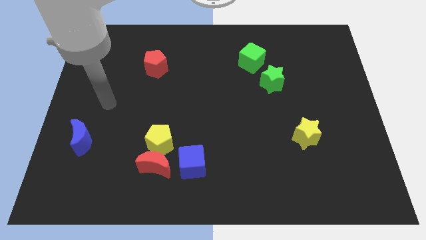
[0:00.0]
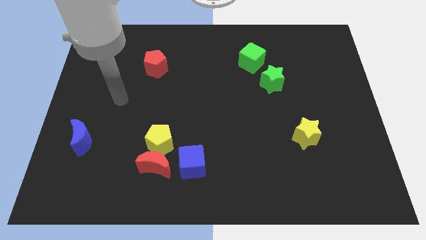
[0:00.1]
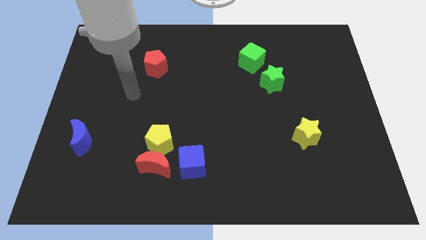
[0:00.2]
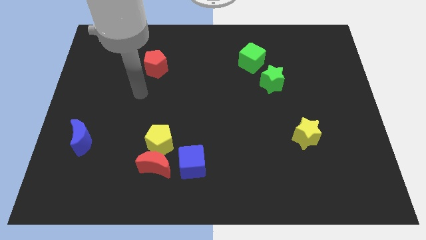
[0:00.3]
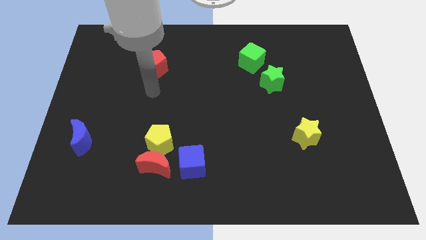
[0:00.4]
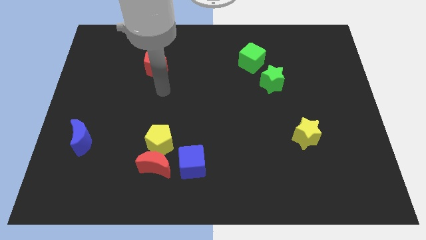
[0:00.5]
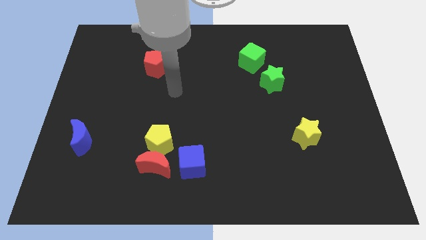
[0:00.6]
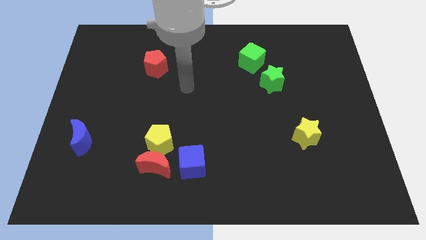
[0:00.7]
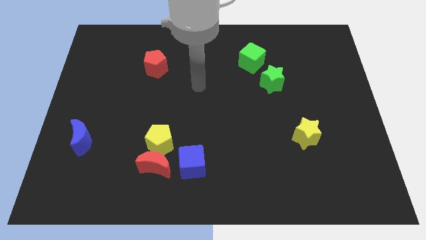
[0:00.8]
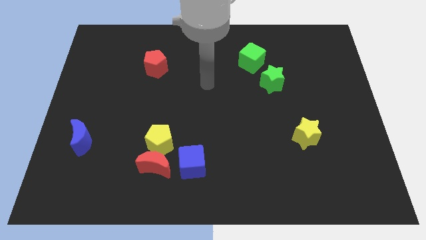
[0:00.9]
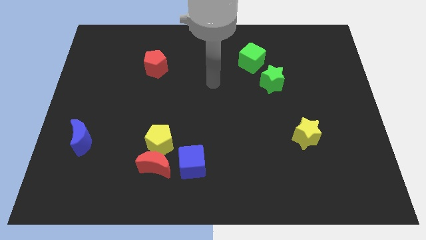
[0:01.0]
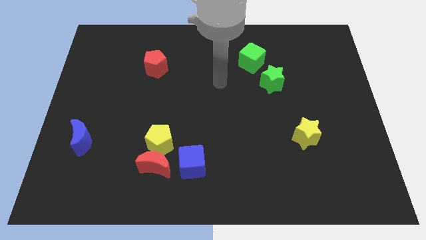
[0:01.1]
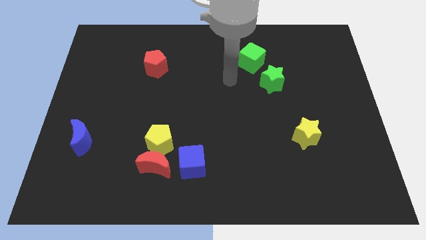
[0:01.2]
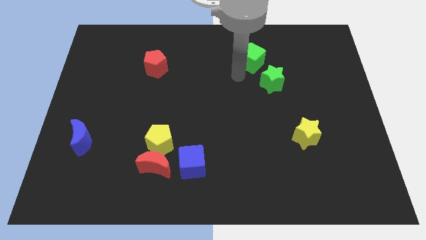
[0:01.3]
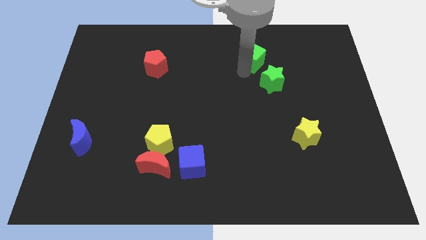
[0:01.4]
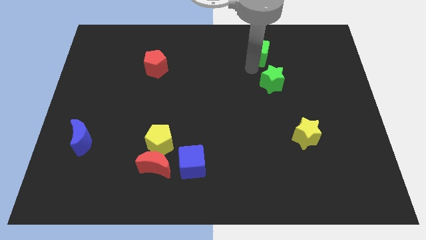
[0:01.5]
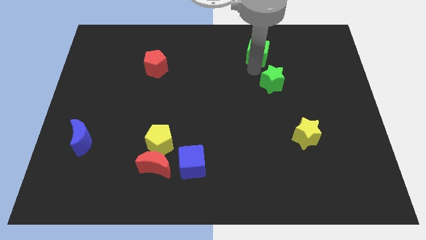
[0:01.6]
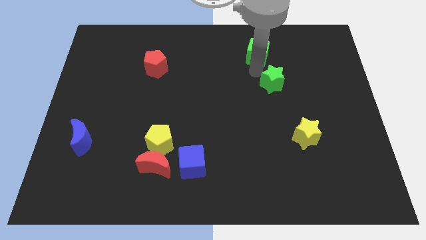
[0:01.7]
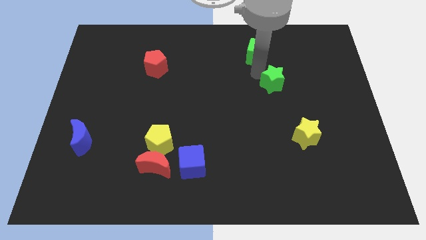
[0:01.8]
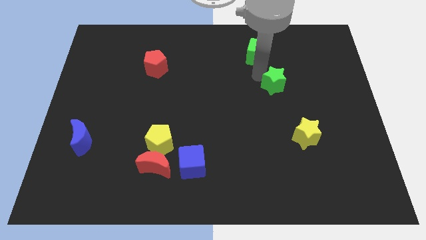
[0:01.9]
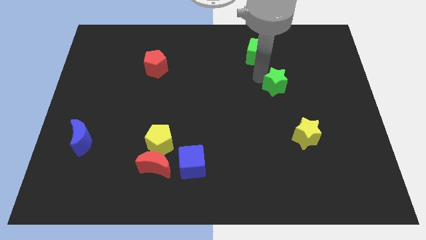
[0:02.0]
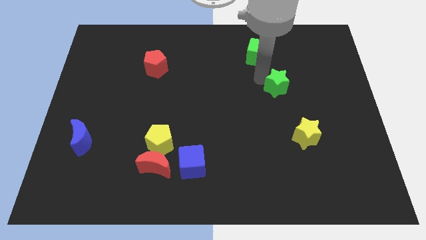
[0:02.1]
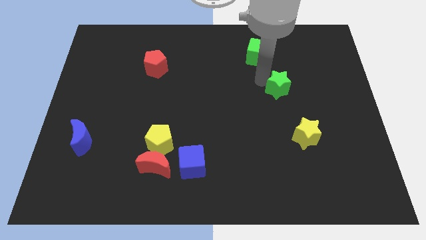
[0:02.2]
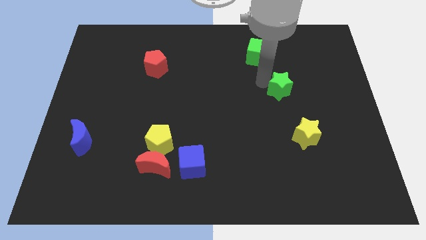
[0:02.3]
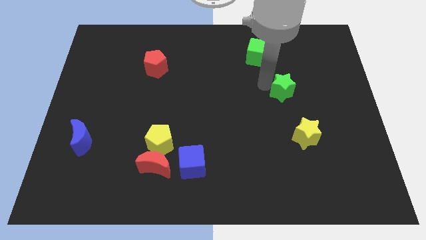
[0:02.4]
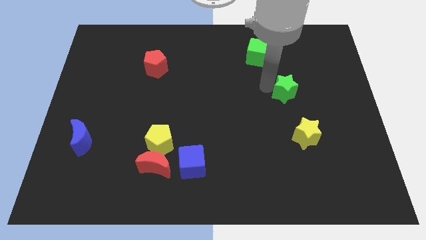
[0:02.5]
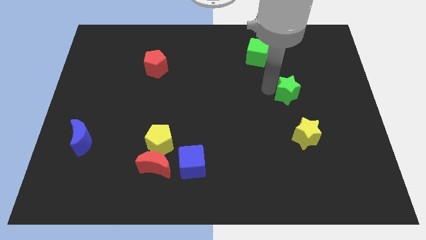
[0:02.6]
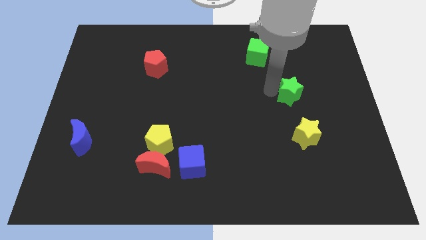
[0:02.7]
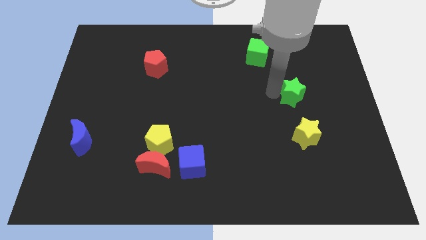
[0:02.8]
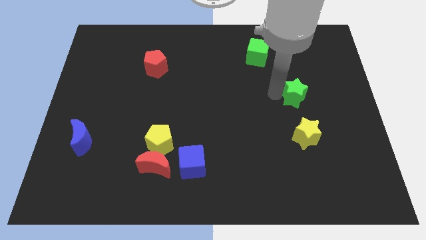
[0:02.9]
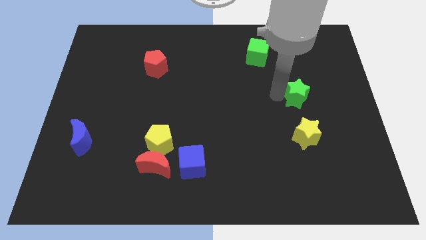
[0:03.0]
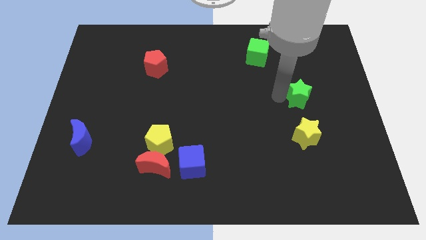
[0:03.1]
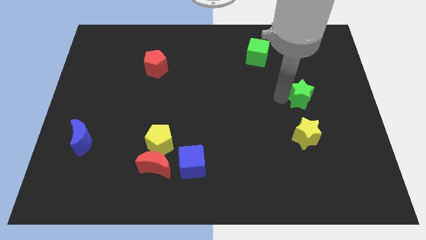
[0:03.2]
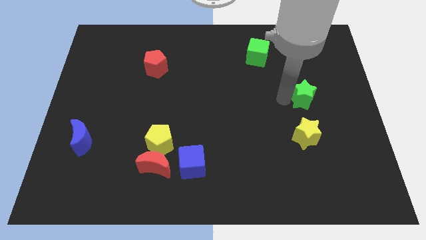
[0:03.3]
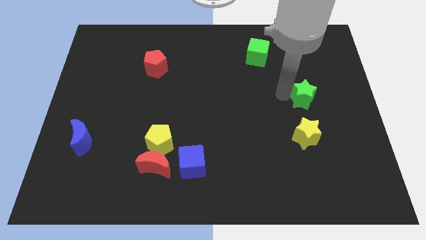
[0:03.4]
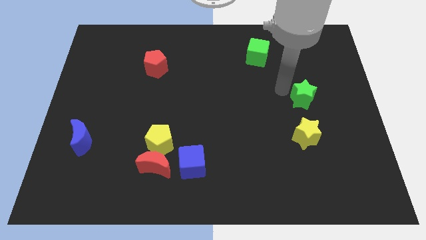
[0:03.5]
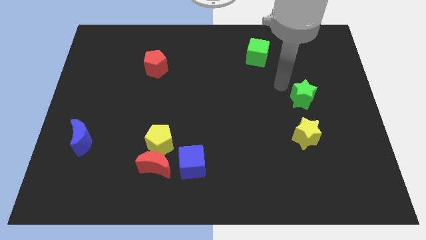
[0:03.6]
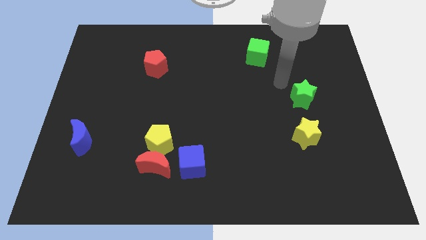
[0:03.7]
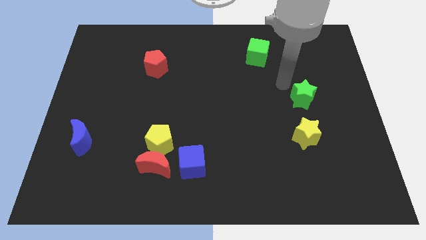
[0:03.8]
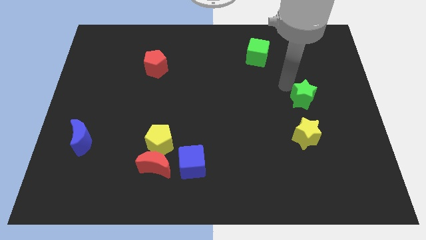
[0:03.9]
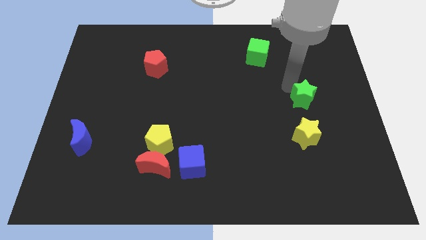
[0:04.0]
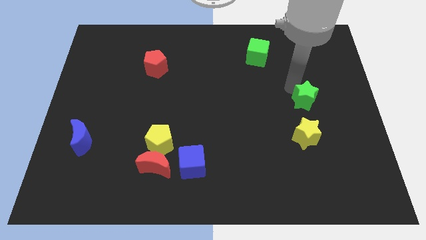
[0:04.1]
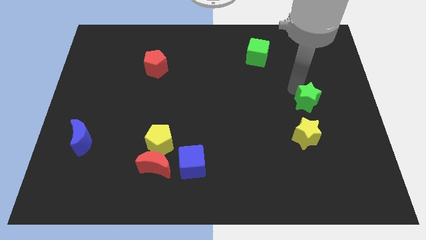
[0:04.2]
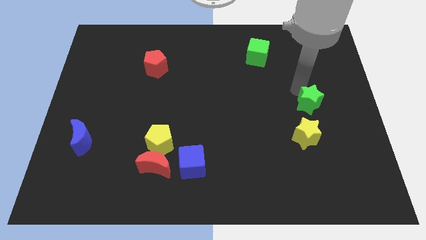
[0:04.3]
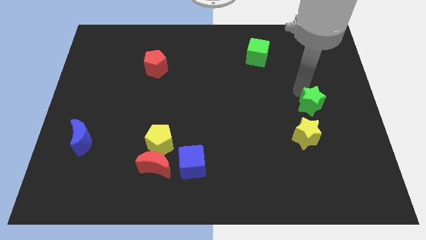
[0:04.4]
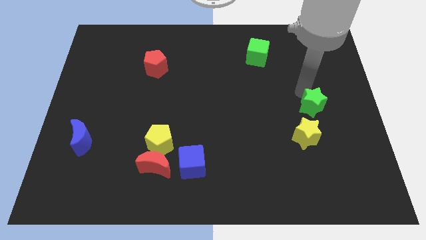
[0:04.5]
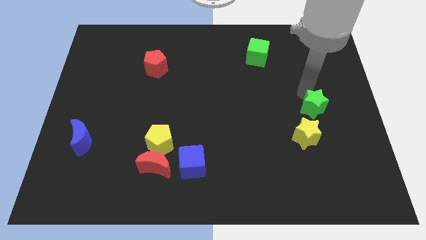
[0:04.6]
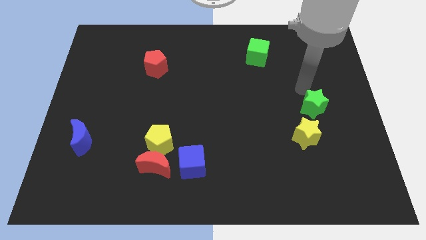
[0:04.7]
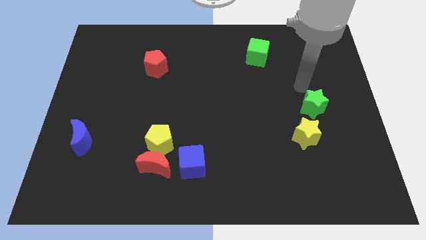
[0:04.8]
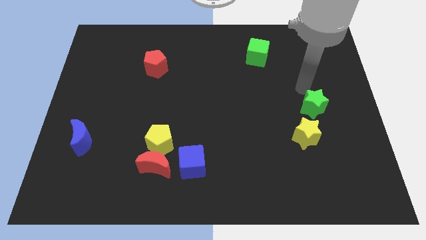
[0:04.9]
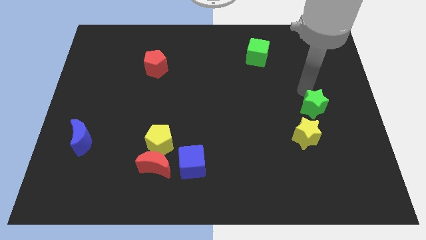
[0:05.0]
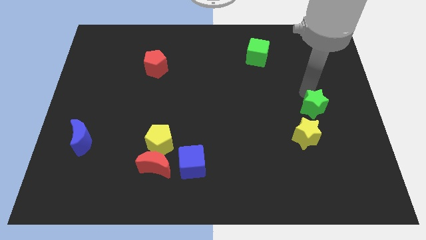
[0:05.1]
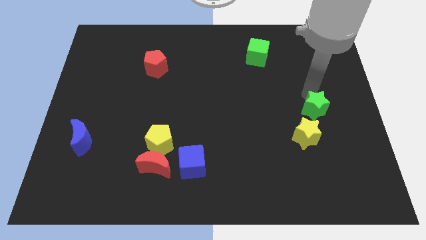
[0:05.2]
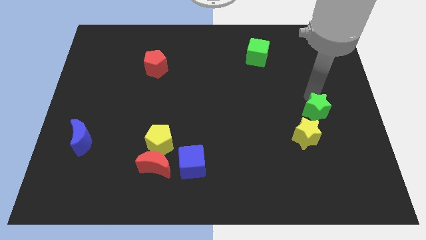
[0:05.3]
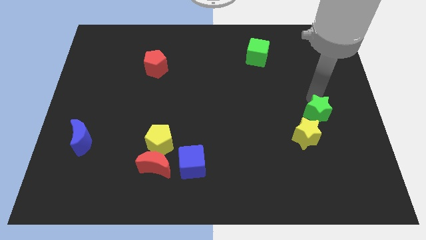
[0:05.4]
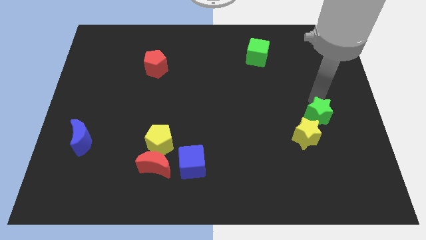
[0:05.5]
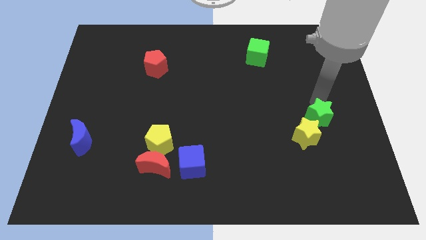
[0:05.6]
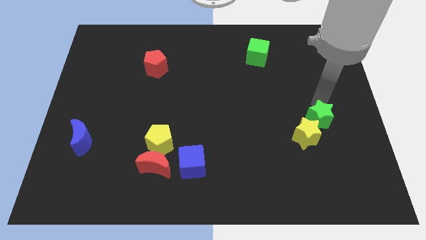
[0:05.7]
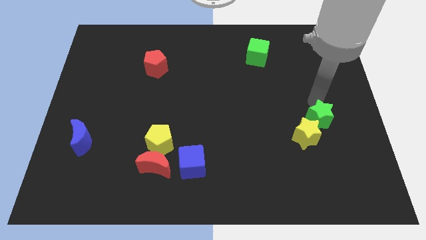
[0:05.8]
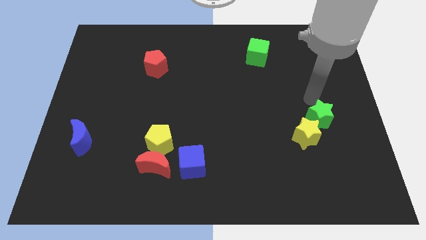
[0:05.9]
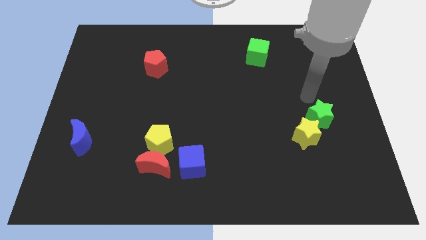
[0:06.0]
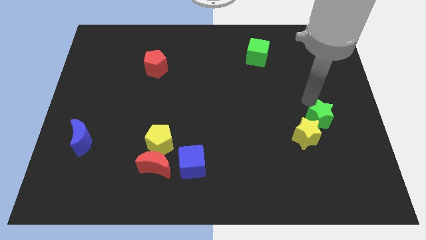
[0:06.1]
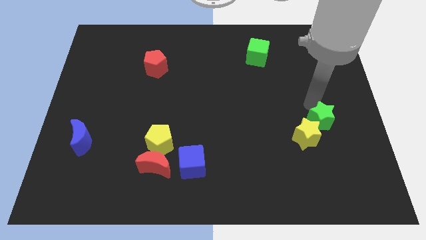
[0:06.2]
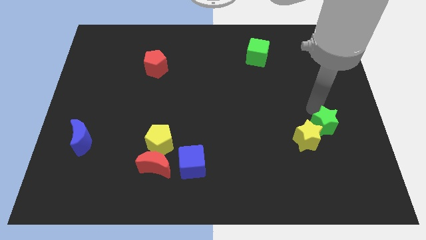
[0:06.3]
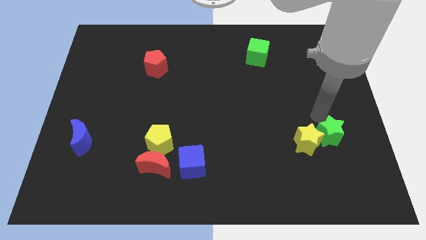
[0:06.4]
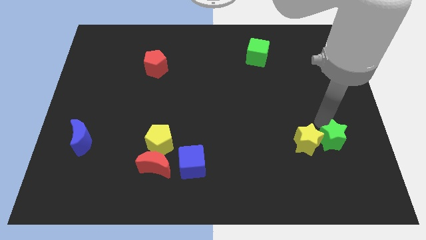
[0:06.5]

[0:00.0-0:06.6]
put the green star to the bottom right side of the yellow star

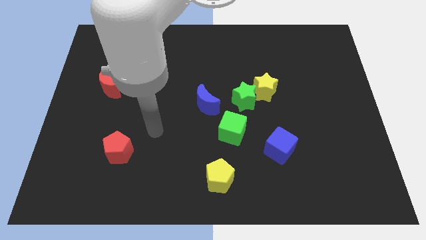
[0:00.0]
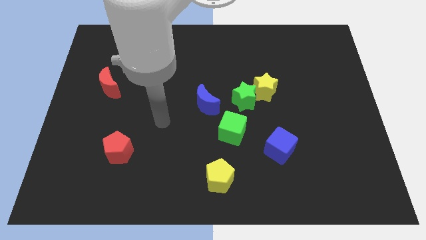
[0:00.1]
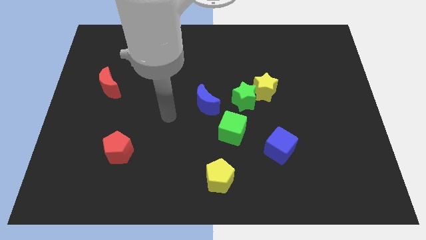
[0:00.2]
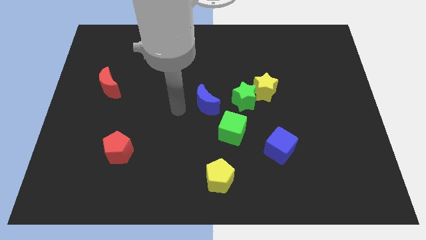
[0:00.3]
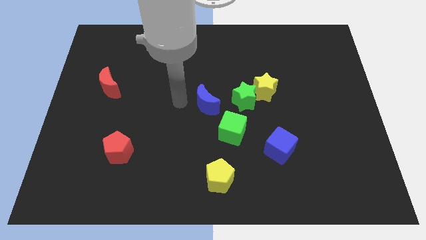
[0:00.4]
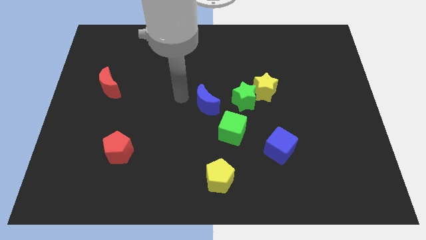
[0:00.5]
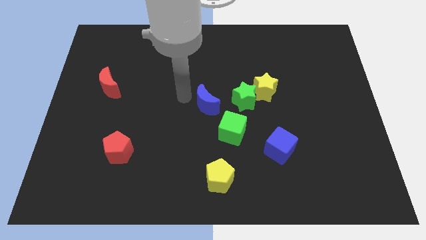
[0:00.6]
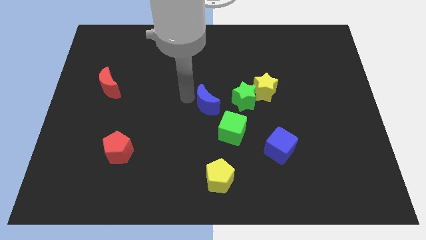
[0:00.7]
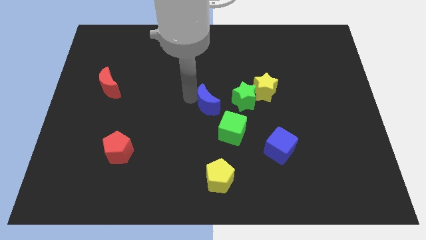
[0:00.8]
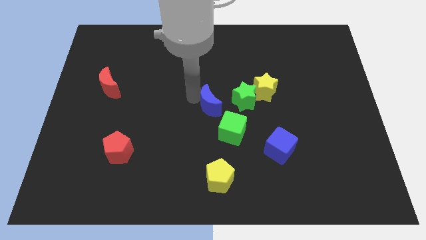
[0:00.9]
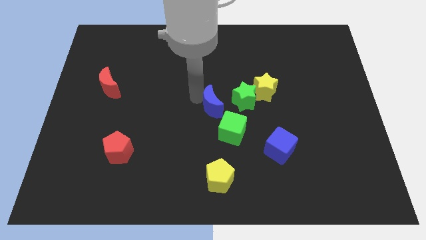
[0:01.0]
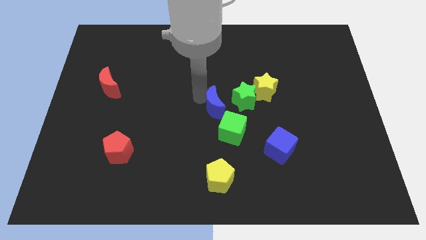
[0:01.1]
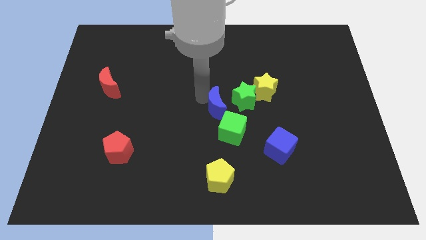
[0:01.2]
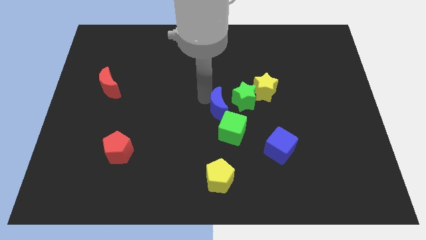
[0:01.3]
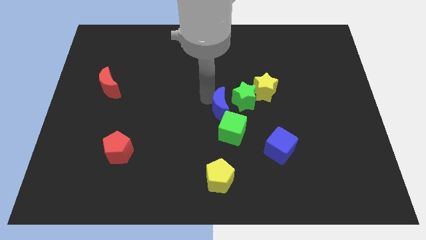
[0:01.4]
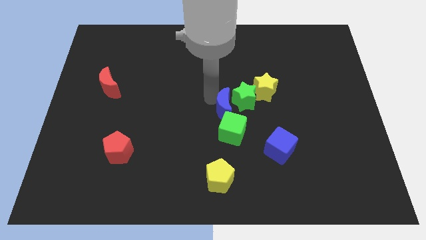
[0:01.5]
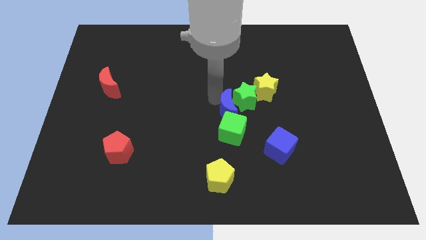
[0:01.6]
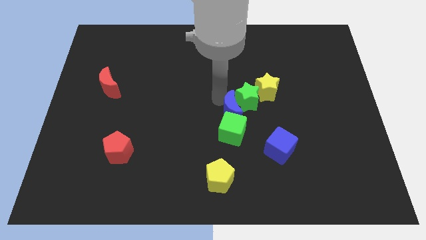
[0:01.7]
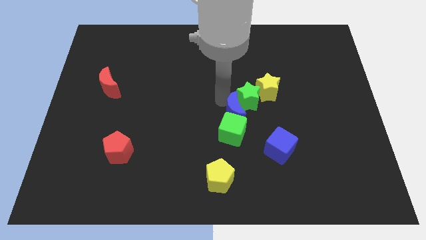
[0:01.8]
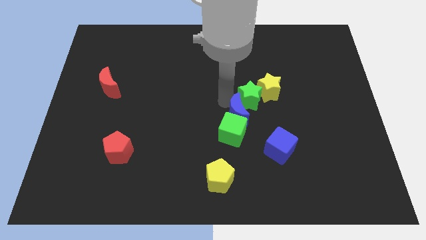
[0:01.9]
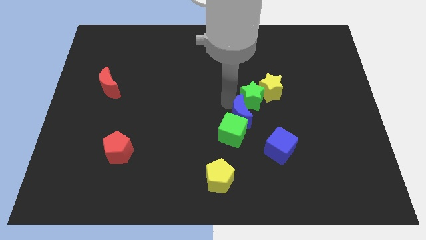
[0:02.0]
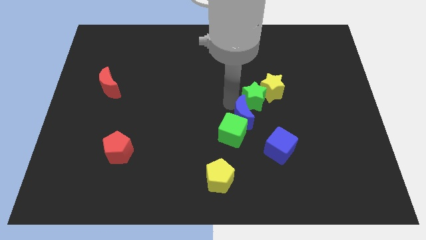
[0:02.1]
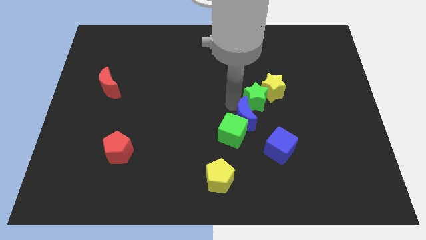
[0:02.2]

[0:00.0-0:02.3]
move the blue moon just right of the green cube
